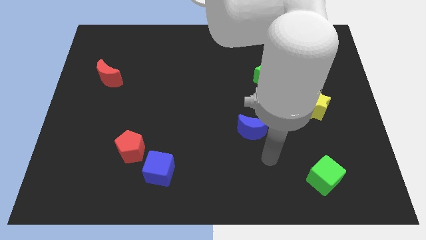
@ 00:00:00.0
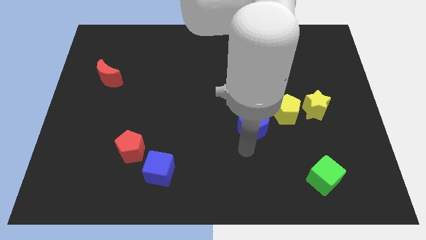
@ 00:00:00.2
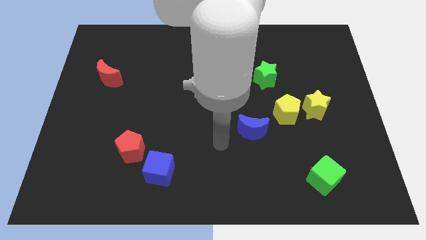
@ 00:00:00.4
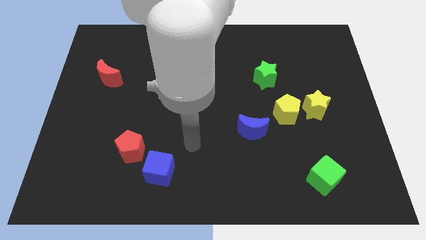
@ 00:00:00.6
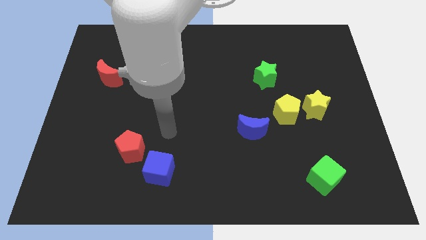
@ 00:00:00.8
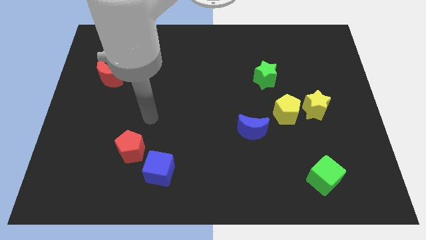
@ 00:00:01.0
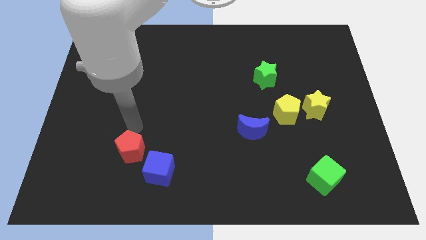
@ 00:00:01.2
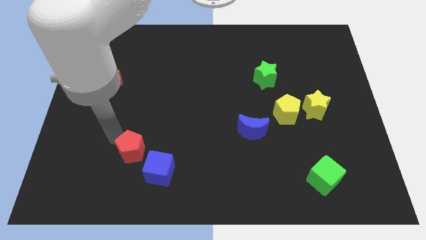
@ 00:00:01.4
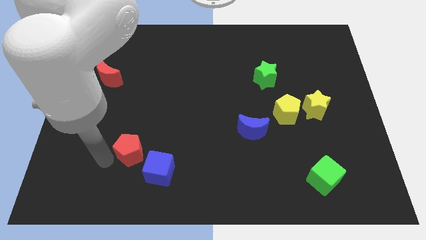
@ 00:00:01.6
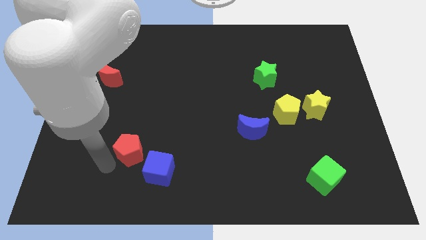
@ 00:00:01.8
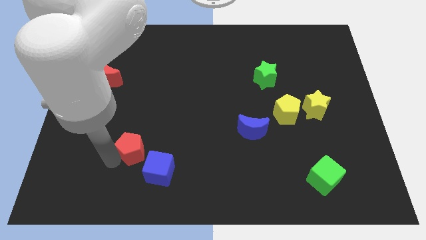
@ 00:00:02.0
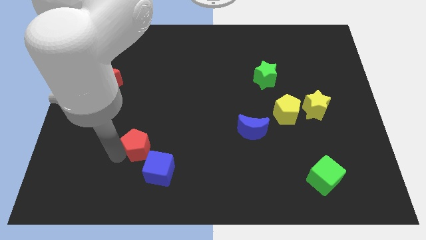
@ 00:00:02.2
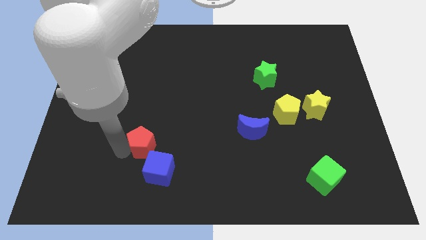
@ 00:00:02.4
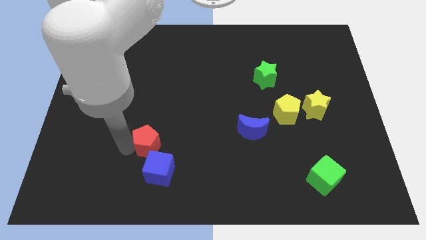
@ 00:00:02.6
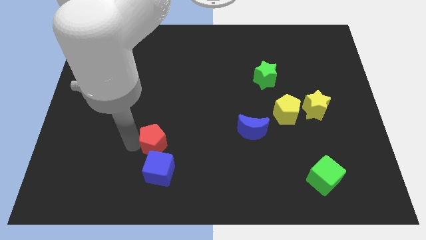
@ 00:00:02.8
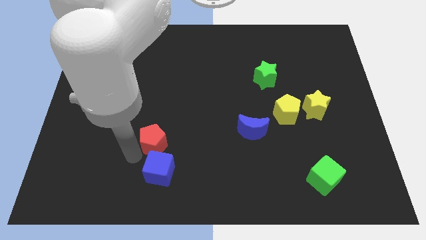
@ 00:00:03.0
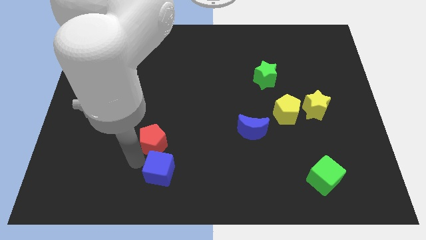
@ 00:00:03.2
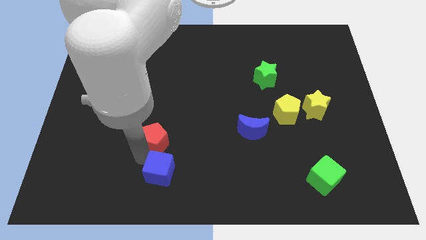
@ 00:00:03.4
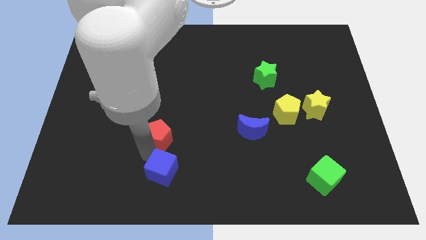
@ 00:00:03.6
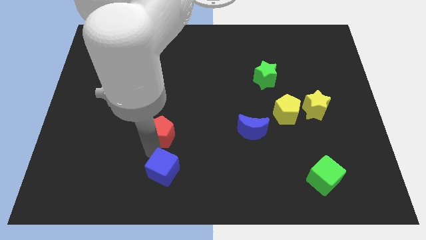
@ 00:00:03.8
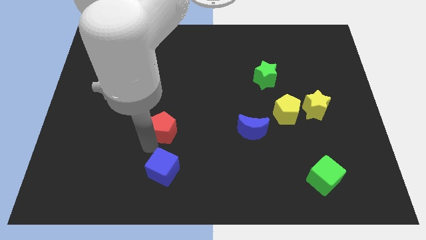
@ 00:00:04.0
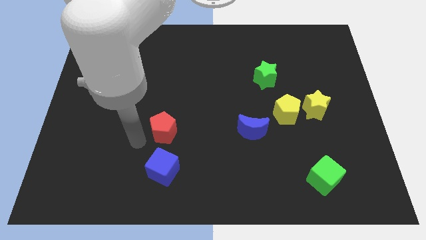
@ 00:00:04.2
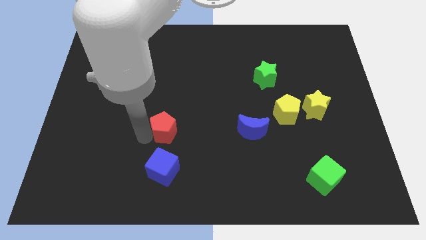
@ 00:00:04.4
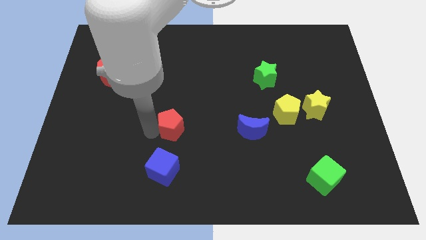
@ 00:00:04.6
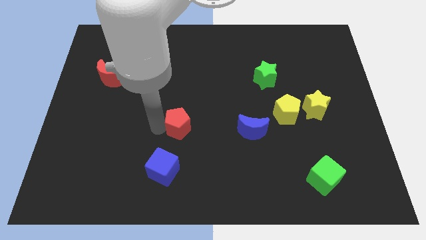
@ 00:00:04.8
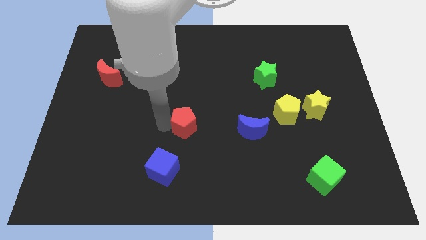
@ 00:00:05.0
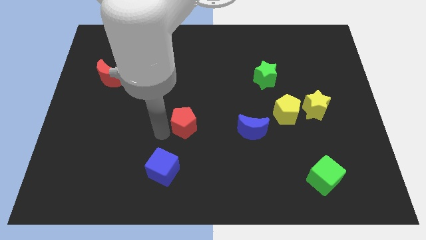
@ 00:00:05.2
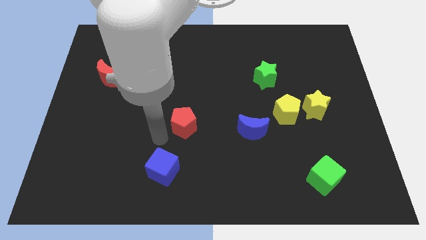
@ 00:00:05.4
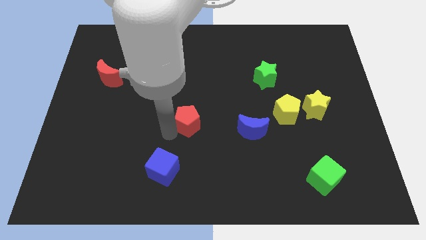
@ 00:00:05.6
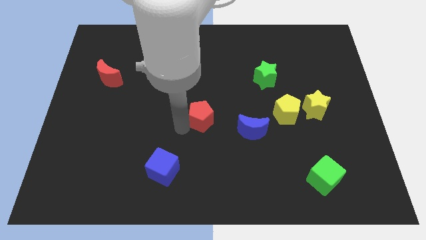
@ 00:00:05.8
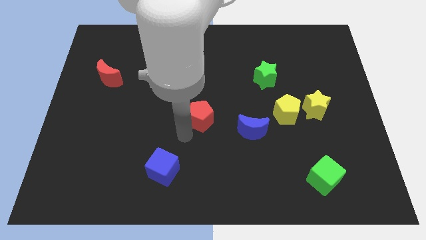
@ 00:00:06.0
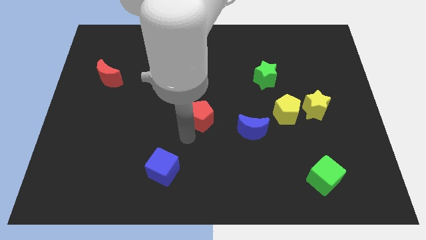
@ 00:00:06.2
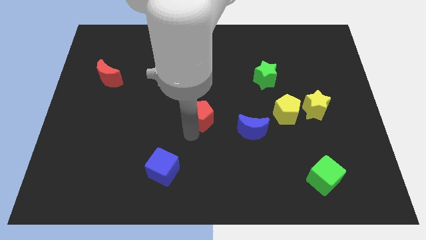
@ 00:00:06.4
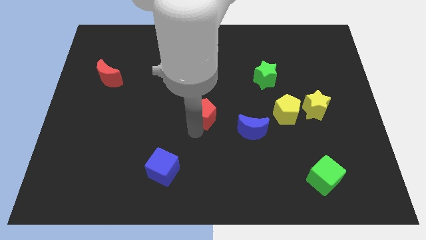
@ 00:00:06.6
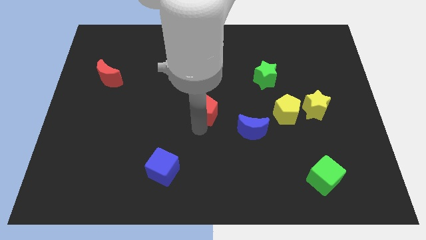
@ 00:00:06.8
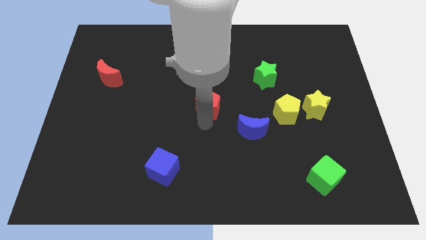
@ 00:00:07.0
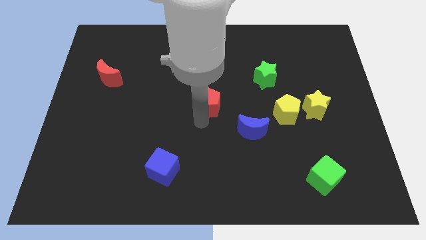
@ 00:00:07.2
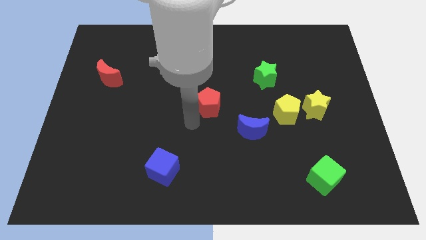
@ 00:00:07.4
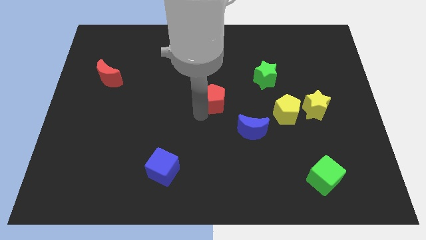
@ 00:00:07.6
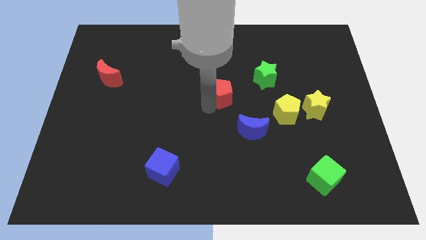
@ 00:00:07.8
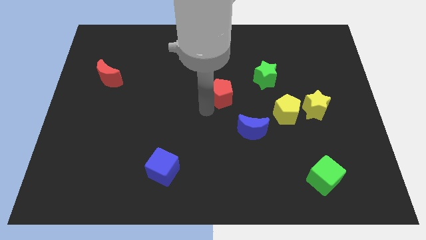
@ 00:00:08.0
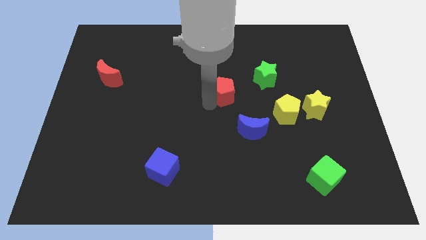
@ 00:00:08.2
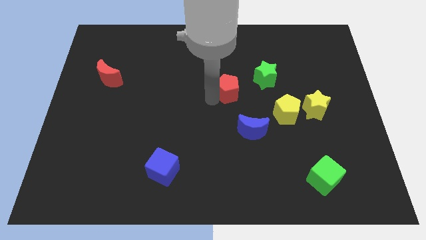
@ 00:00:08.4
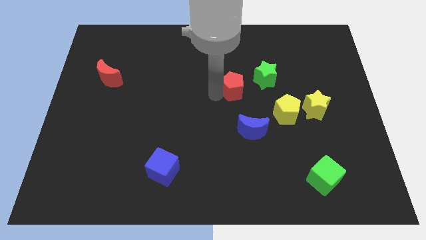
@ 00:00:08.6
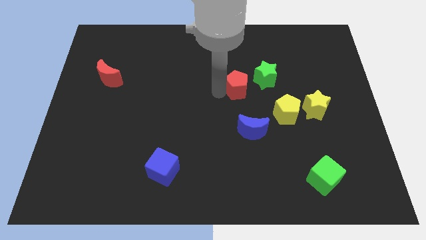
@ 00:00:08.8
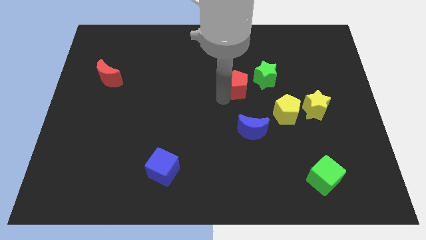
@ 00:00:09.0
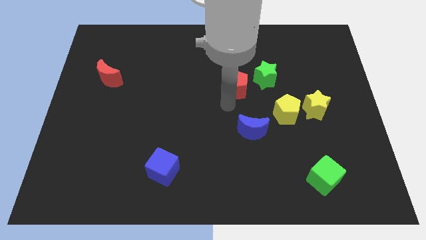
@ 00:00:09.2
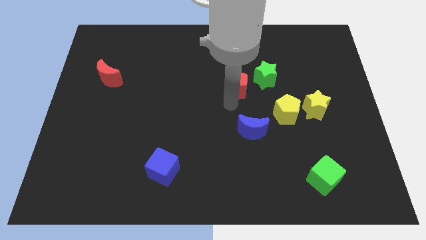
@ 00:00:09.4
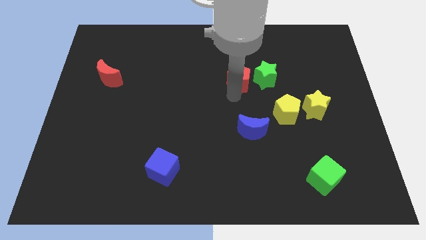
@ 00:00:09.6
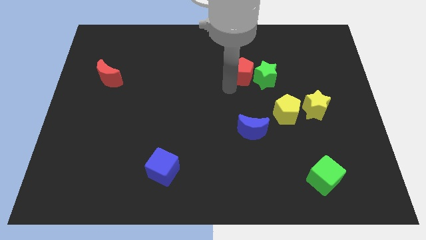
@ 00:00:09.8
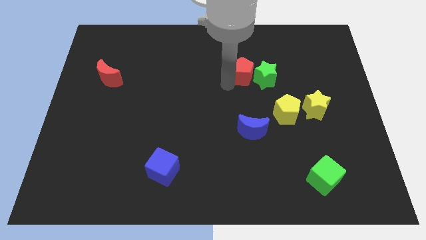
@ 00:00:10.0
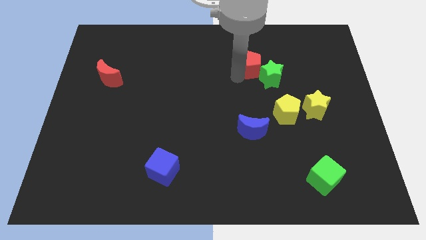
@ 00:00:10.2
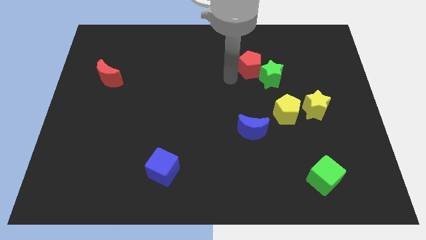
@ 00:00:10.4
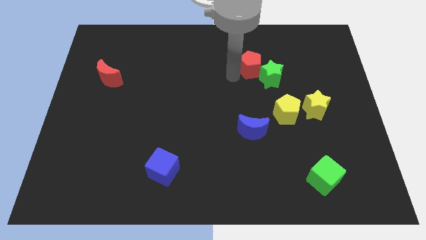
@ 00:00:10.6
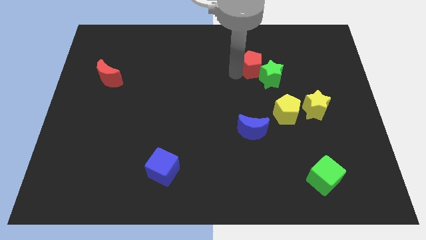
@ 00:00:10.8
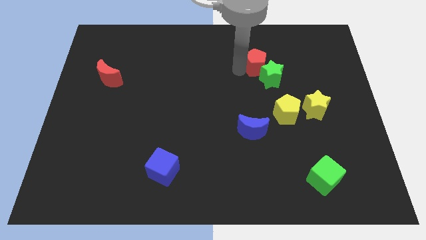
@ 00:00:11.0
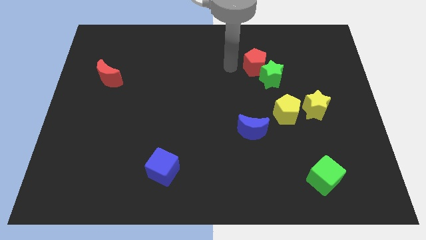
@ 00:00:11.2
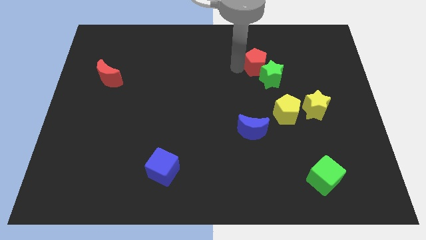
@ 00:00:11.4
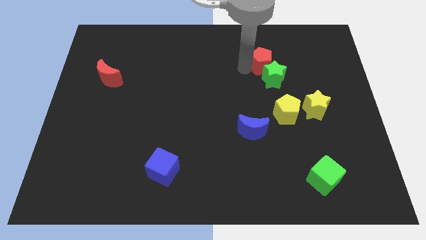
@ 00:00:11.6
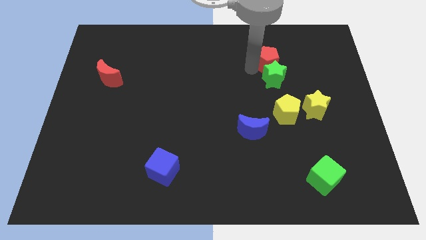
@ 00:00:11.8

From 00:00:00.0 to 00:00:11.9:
push the red pentagon diagonally up and to the right of the green star

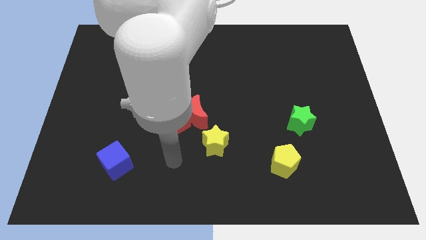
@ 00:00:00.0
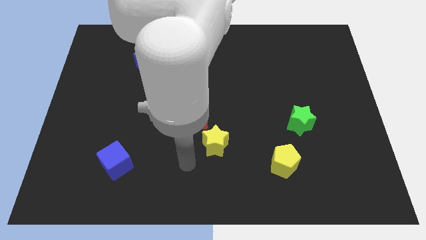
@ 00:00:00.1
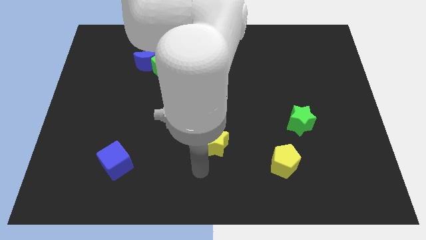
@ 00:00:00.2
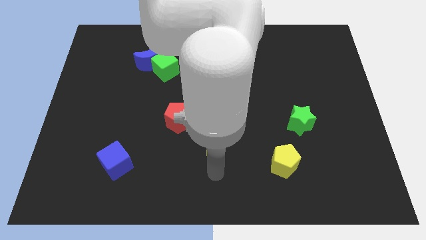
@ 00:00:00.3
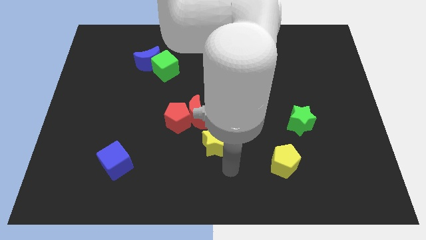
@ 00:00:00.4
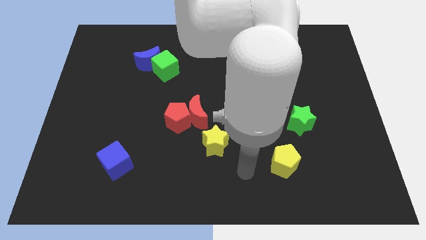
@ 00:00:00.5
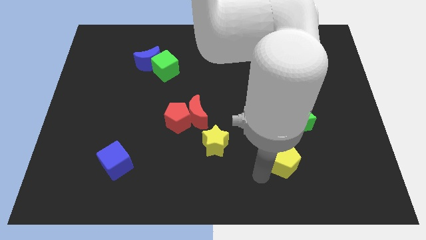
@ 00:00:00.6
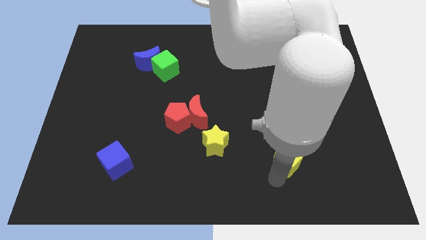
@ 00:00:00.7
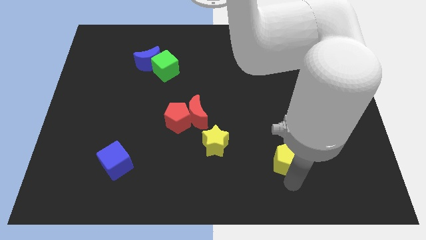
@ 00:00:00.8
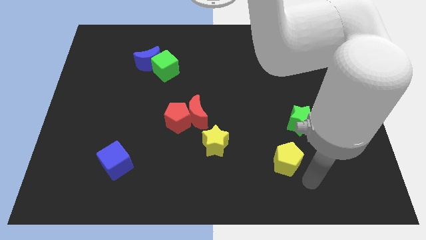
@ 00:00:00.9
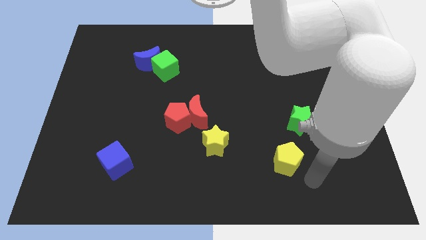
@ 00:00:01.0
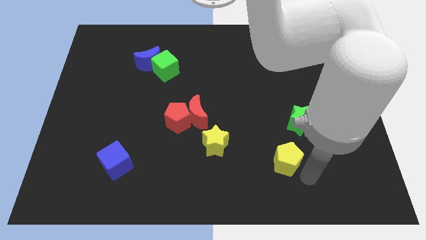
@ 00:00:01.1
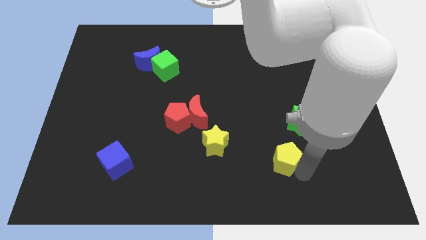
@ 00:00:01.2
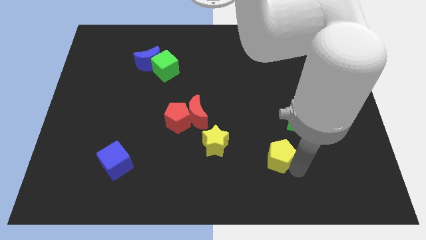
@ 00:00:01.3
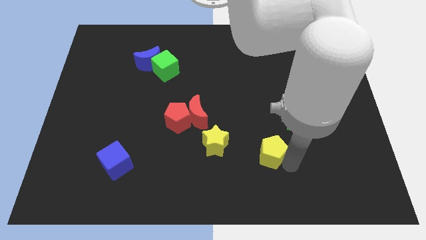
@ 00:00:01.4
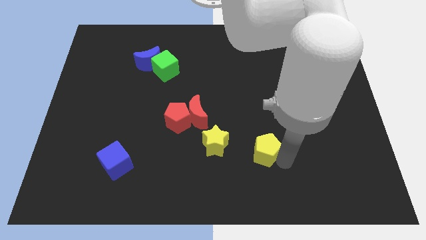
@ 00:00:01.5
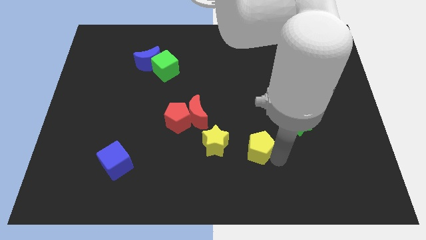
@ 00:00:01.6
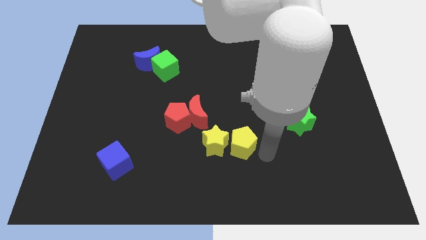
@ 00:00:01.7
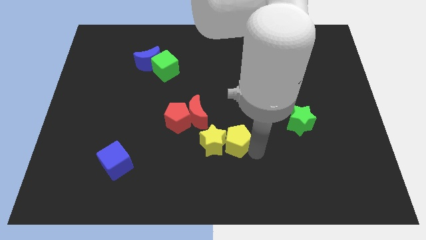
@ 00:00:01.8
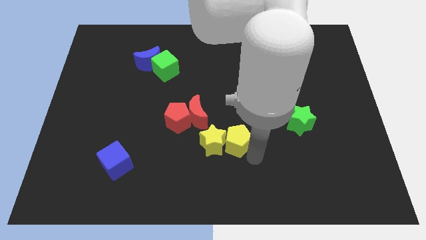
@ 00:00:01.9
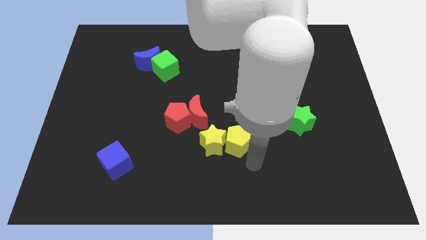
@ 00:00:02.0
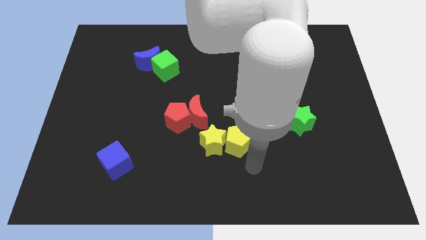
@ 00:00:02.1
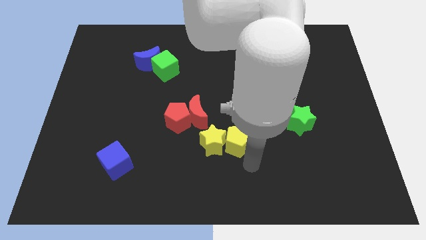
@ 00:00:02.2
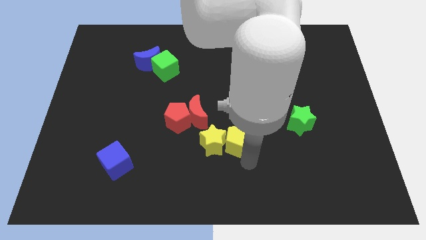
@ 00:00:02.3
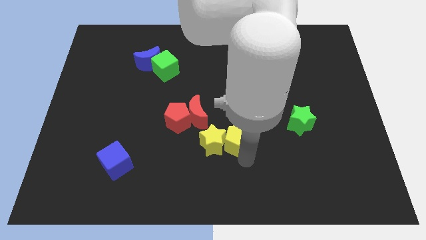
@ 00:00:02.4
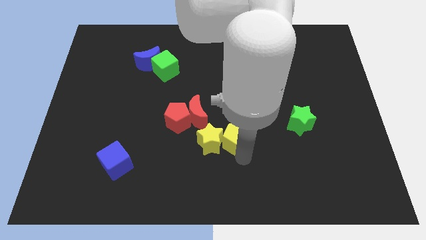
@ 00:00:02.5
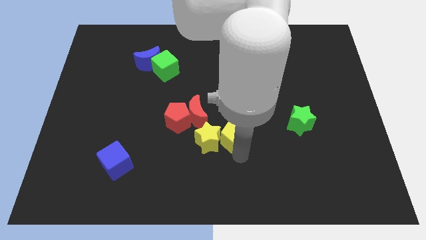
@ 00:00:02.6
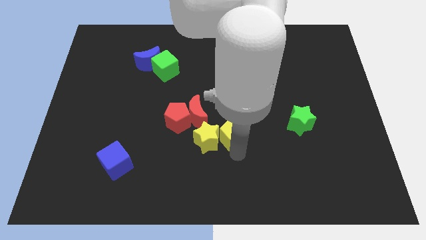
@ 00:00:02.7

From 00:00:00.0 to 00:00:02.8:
push the yellow pentagon just right of the red pentagon
